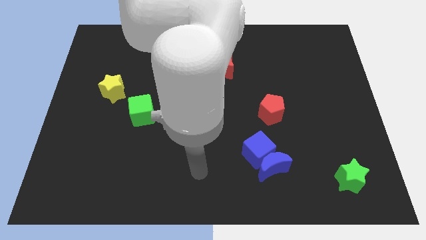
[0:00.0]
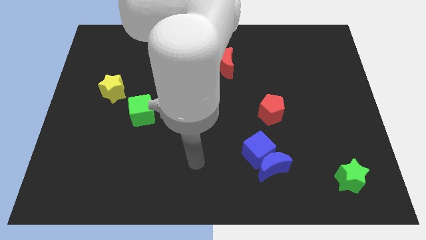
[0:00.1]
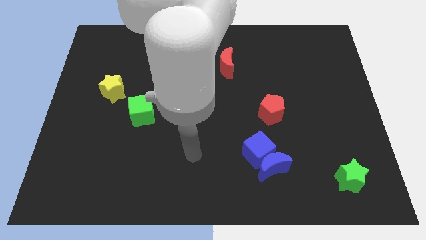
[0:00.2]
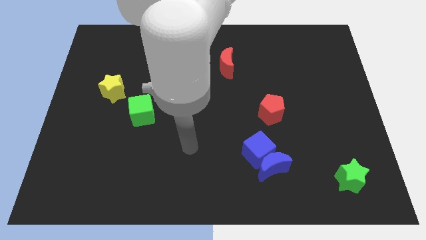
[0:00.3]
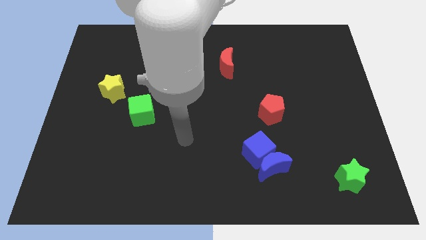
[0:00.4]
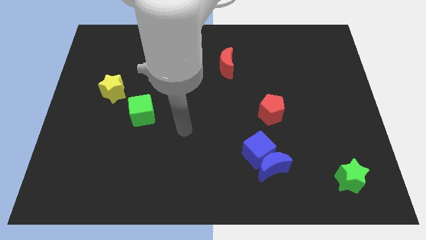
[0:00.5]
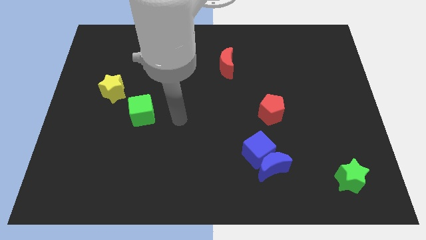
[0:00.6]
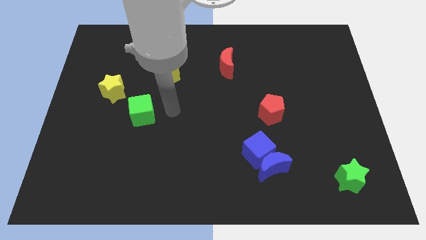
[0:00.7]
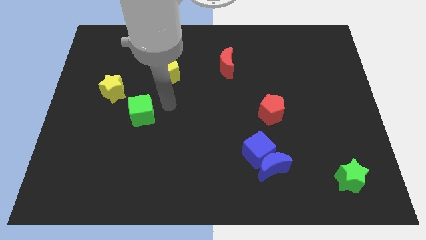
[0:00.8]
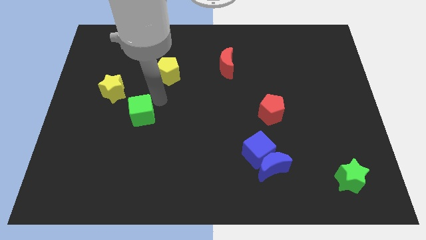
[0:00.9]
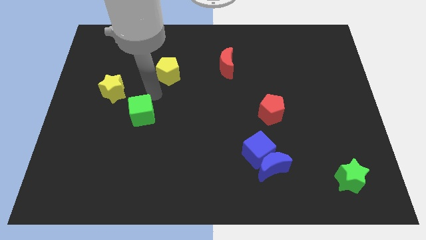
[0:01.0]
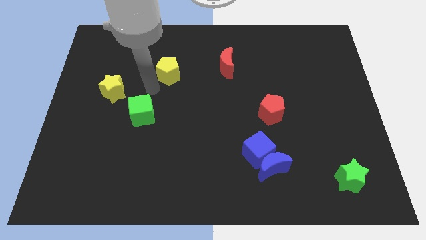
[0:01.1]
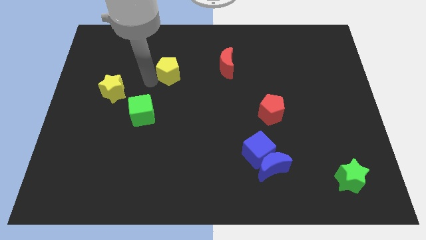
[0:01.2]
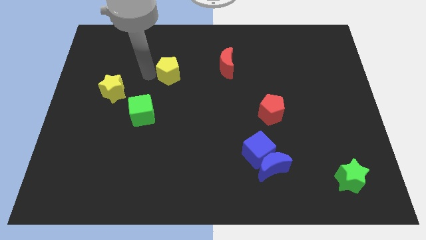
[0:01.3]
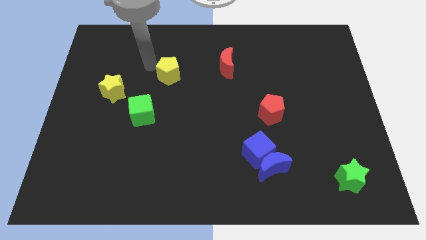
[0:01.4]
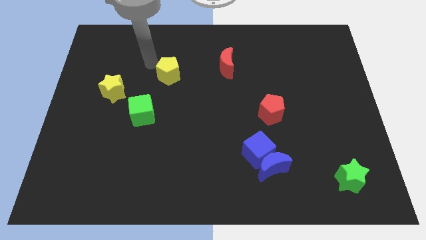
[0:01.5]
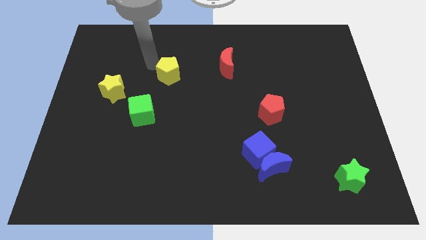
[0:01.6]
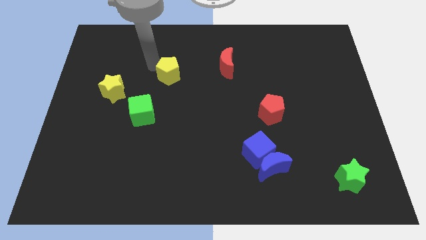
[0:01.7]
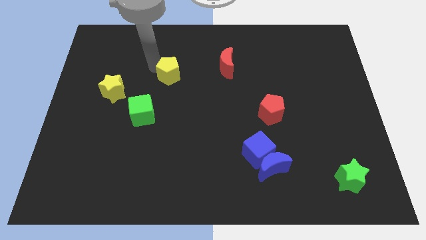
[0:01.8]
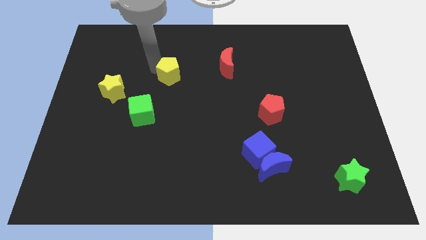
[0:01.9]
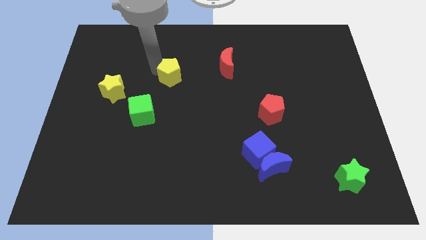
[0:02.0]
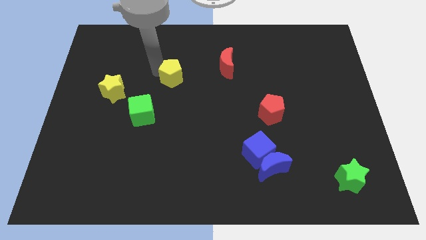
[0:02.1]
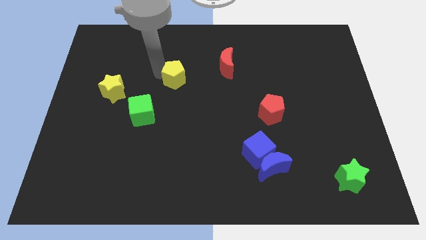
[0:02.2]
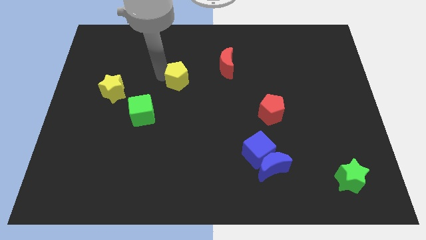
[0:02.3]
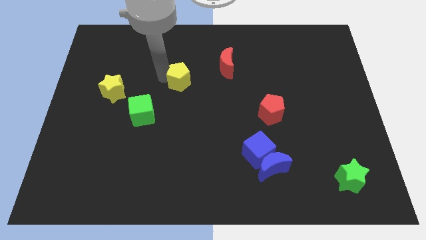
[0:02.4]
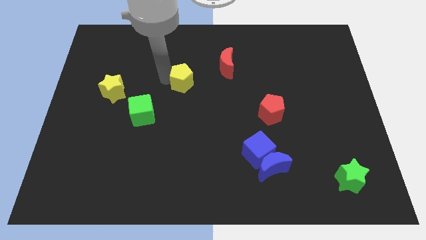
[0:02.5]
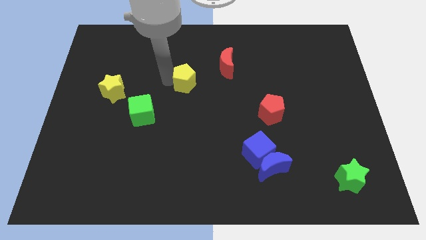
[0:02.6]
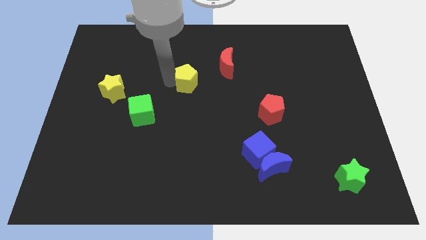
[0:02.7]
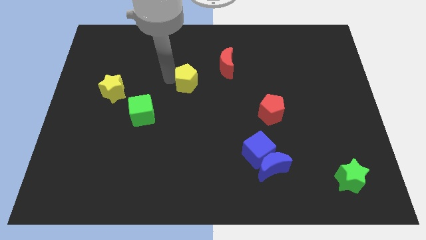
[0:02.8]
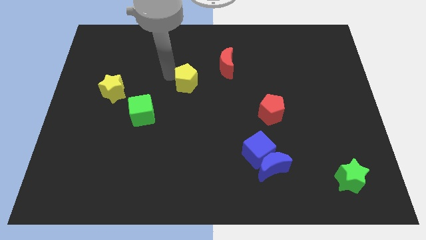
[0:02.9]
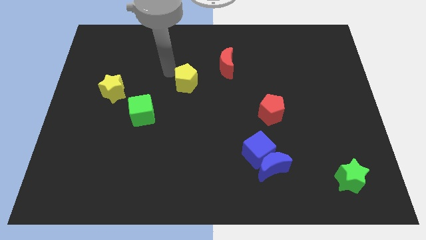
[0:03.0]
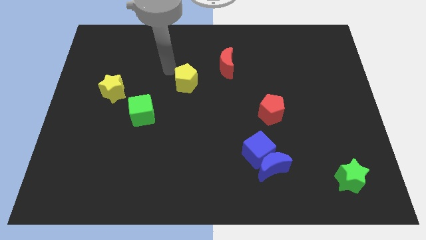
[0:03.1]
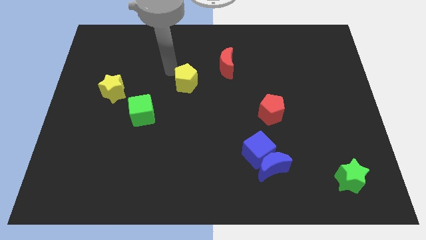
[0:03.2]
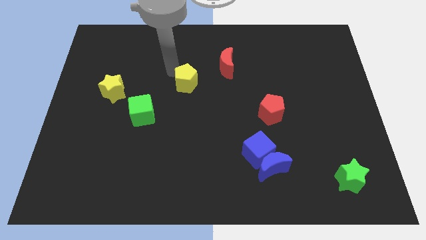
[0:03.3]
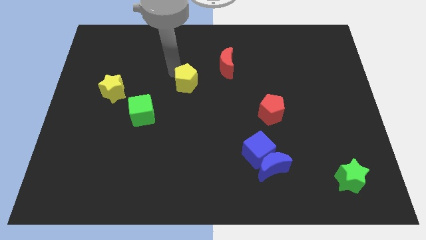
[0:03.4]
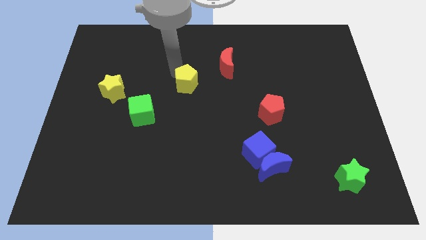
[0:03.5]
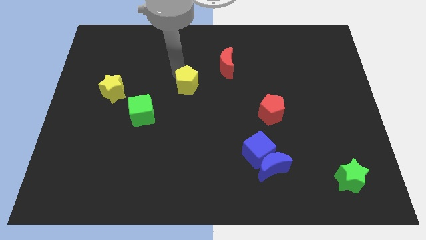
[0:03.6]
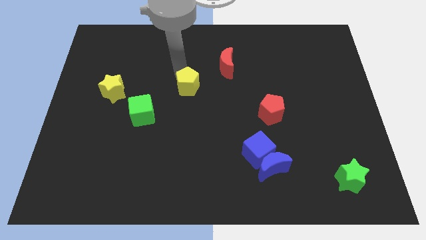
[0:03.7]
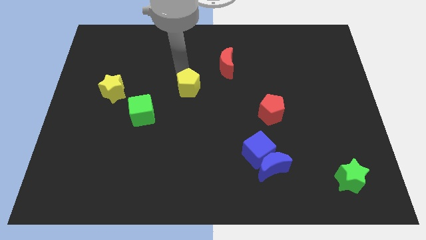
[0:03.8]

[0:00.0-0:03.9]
move the yellow pentagon diagonally downwards and to the right slightly

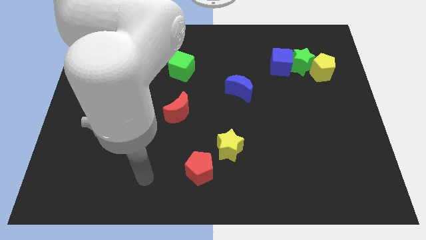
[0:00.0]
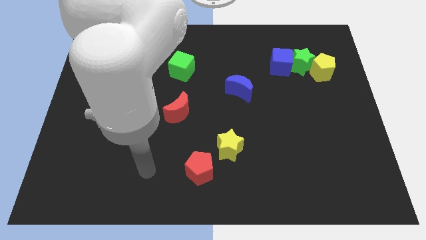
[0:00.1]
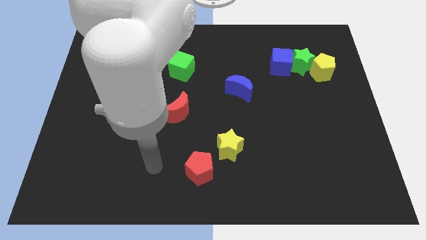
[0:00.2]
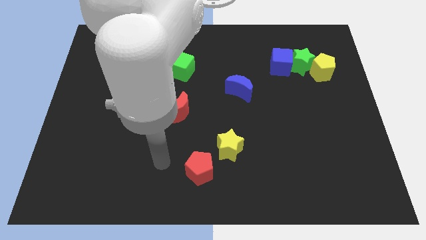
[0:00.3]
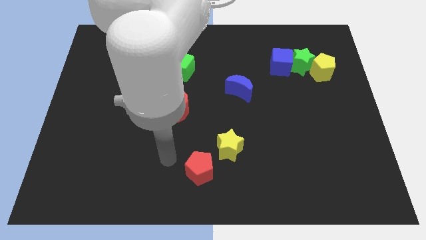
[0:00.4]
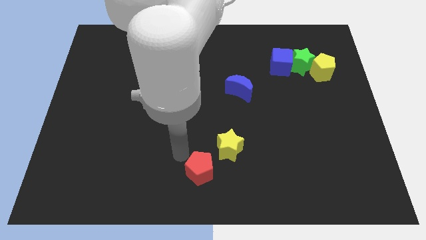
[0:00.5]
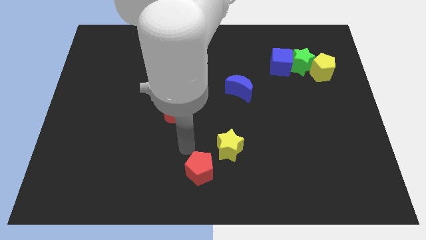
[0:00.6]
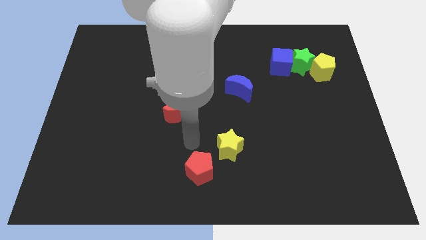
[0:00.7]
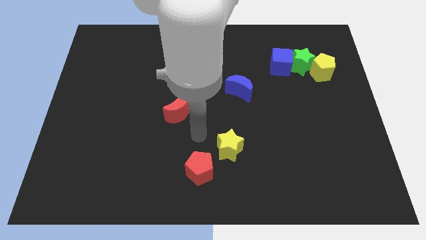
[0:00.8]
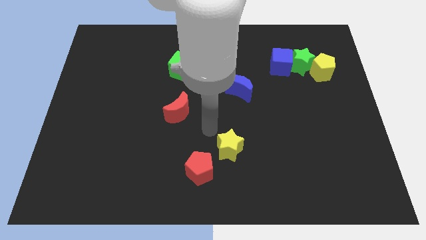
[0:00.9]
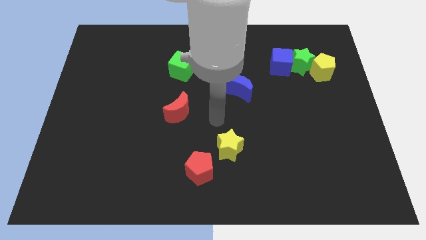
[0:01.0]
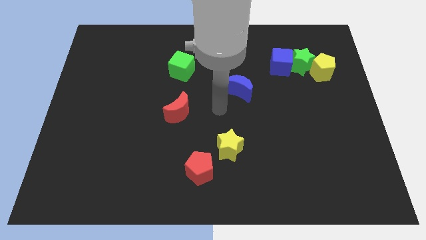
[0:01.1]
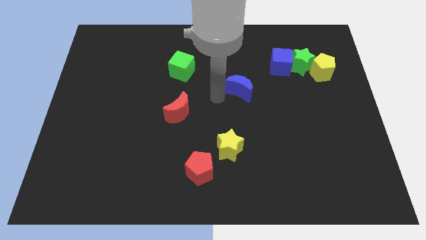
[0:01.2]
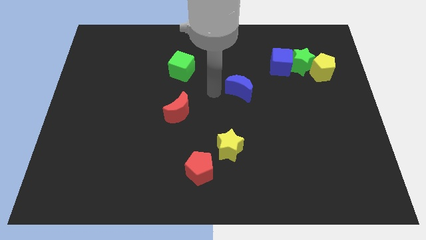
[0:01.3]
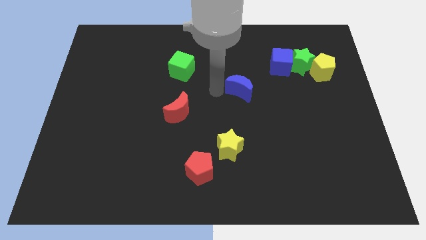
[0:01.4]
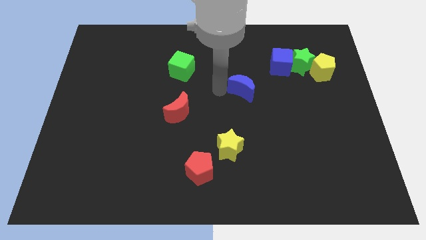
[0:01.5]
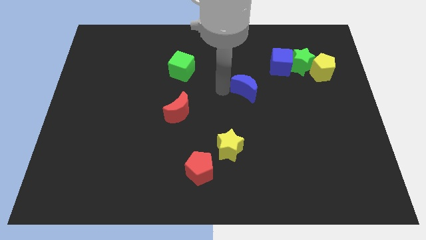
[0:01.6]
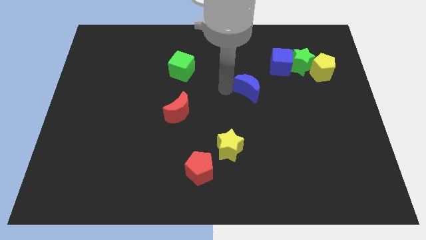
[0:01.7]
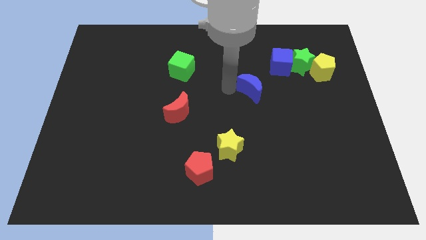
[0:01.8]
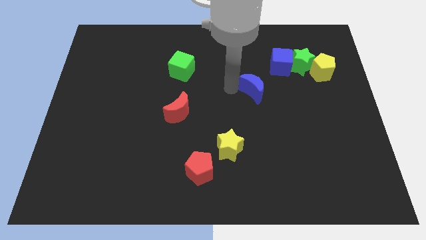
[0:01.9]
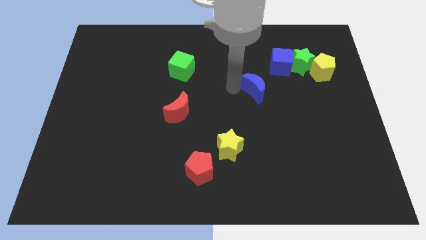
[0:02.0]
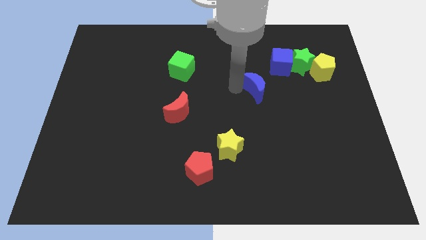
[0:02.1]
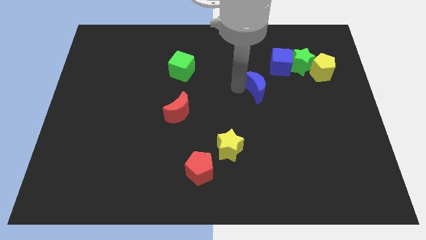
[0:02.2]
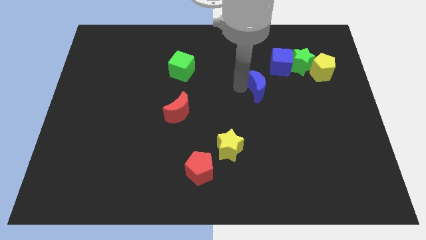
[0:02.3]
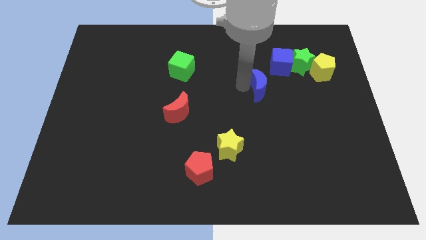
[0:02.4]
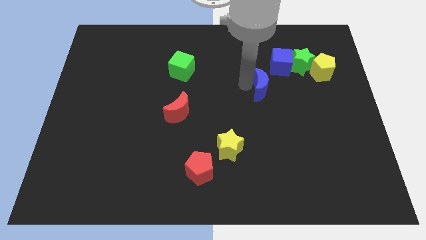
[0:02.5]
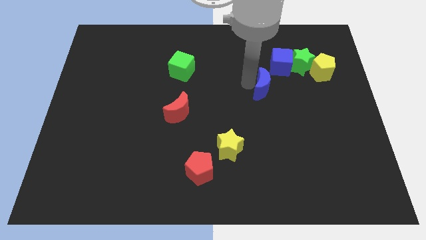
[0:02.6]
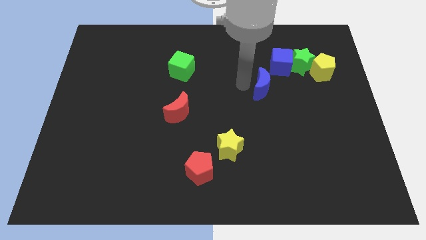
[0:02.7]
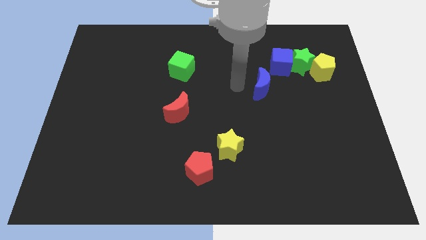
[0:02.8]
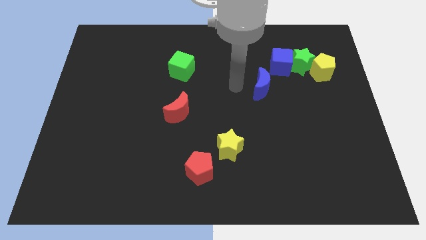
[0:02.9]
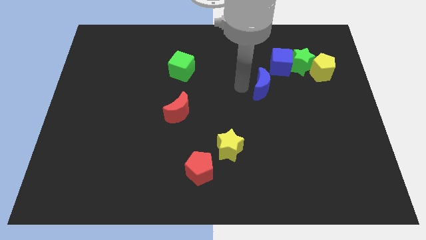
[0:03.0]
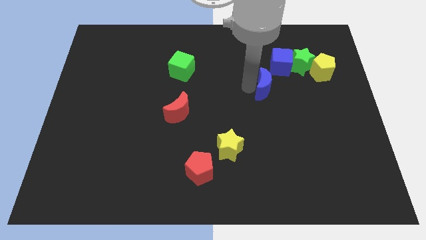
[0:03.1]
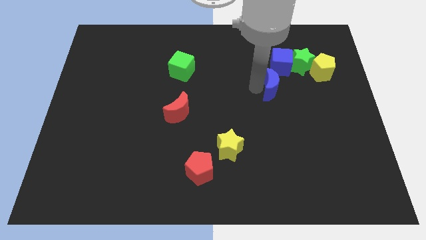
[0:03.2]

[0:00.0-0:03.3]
slightly move the blue moon to the right

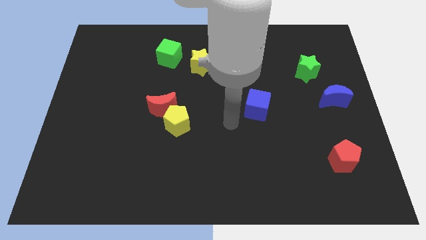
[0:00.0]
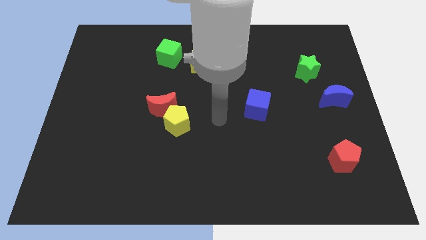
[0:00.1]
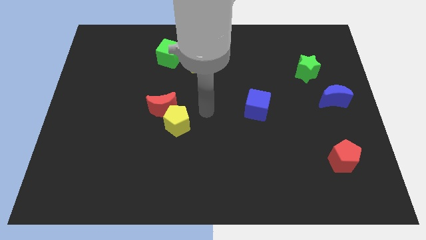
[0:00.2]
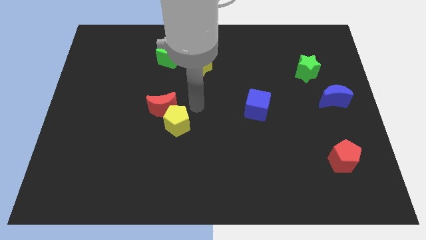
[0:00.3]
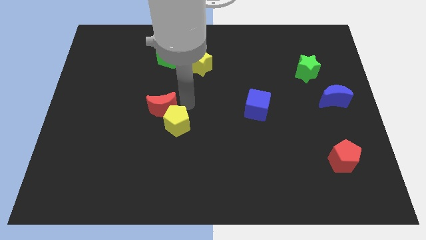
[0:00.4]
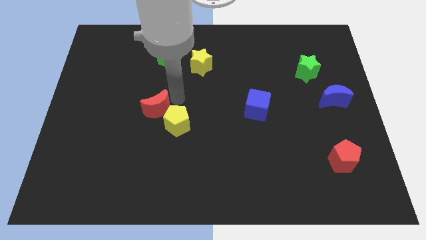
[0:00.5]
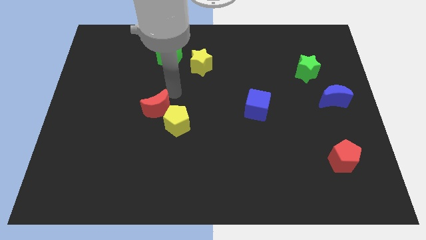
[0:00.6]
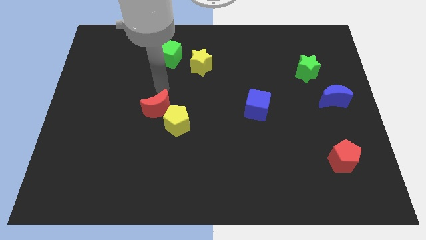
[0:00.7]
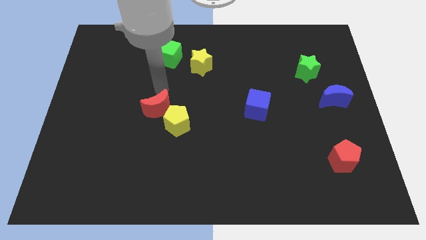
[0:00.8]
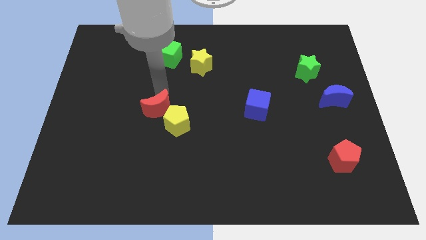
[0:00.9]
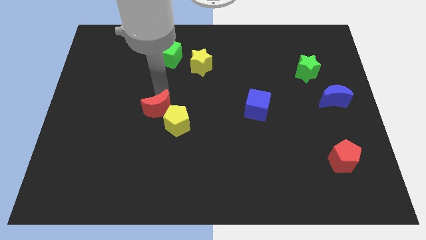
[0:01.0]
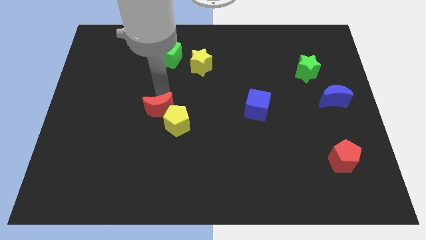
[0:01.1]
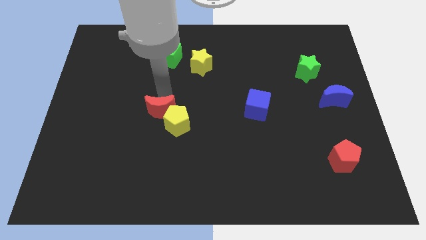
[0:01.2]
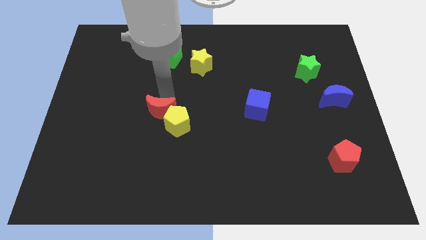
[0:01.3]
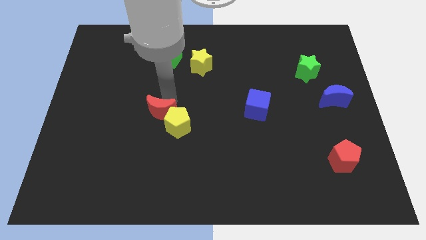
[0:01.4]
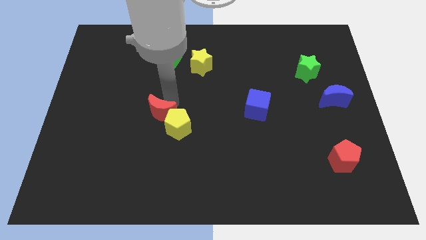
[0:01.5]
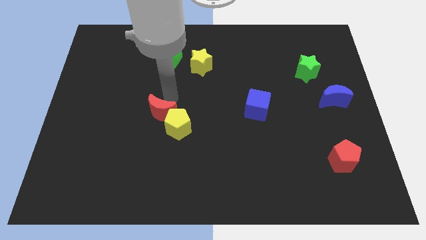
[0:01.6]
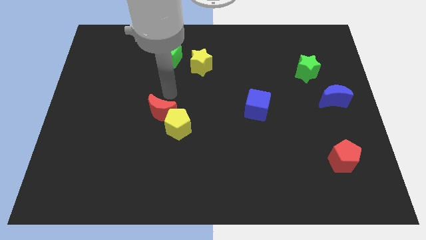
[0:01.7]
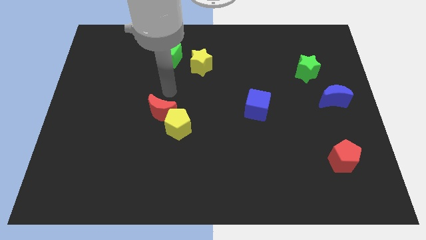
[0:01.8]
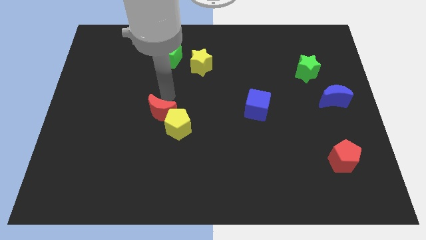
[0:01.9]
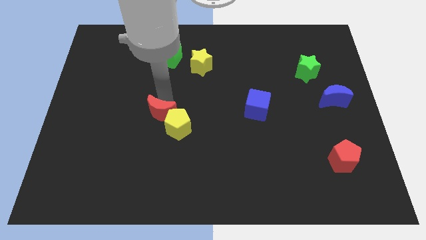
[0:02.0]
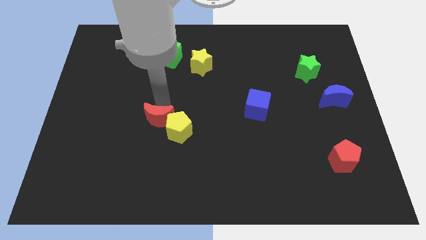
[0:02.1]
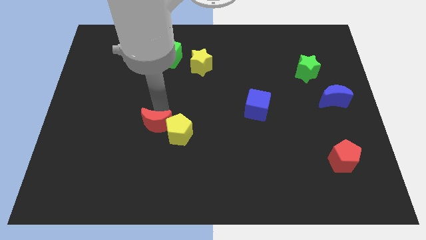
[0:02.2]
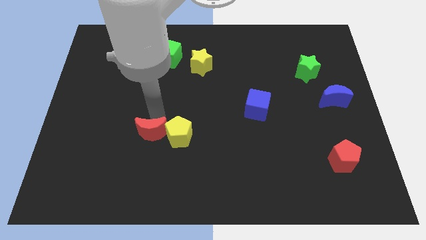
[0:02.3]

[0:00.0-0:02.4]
slightly move the red moon downwards
